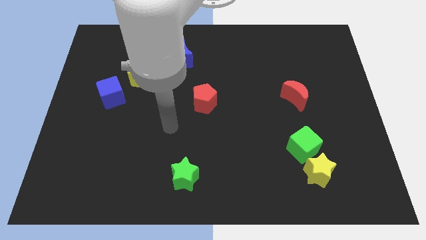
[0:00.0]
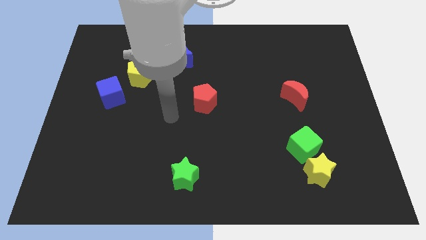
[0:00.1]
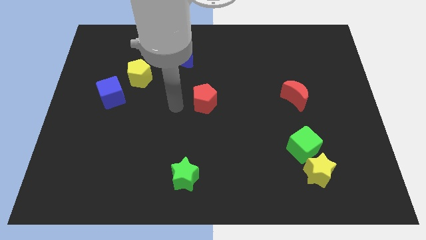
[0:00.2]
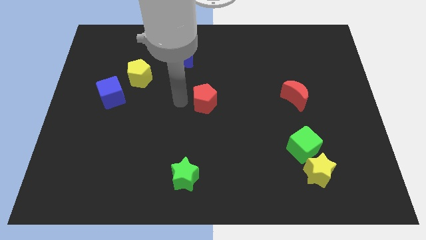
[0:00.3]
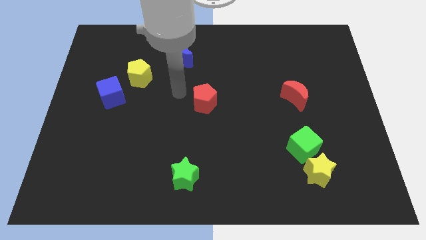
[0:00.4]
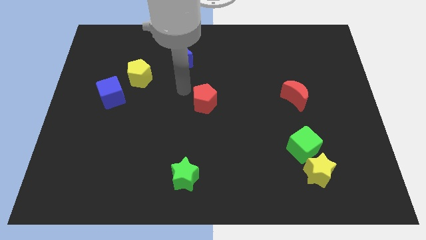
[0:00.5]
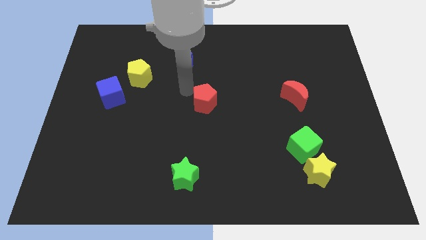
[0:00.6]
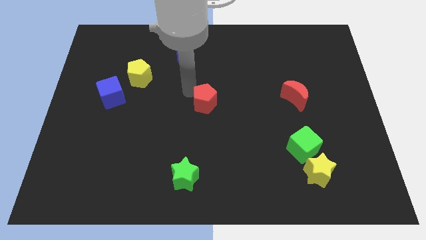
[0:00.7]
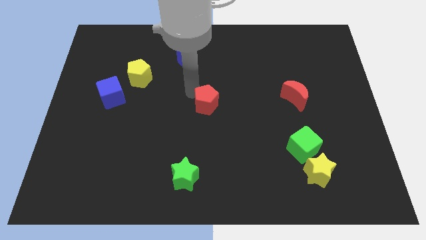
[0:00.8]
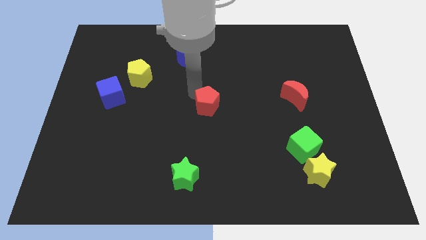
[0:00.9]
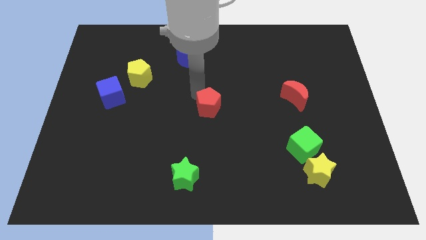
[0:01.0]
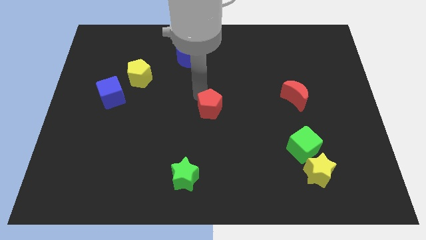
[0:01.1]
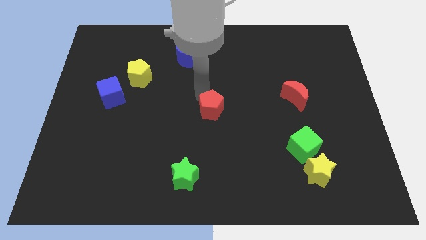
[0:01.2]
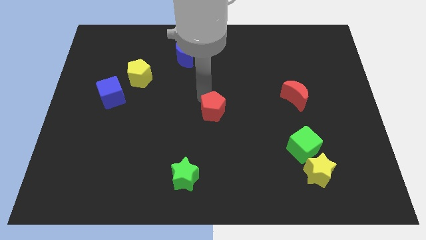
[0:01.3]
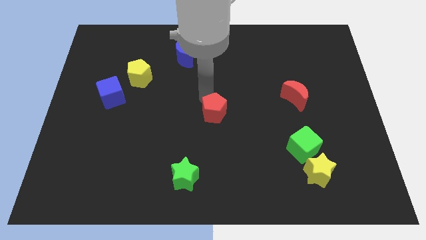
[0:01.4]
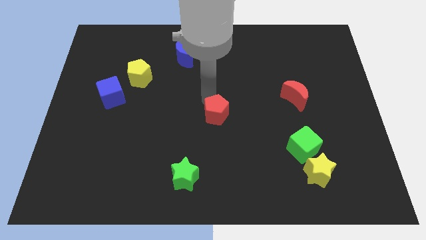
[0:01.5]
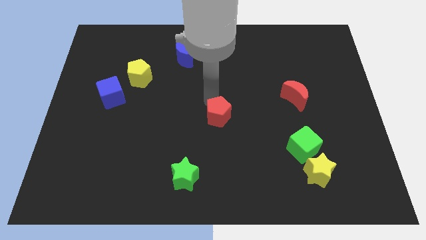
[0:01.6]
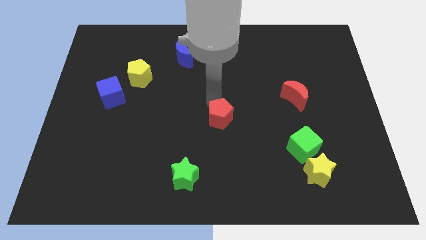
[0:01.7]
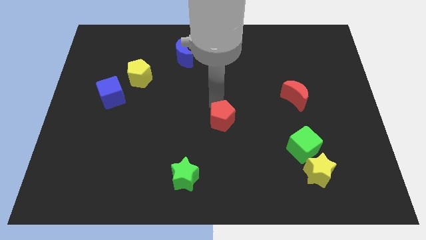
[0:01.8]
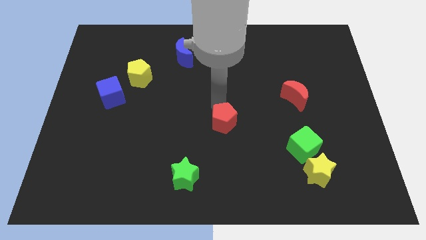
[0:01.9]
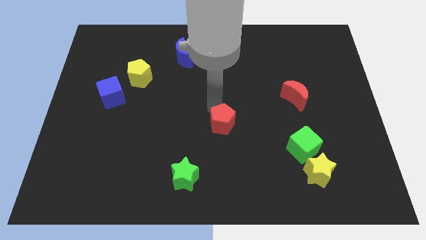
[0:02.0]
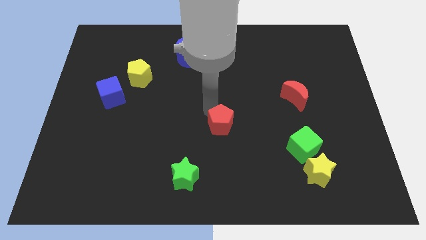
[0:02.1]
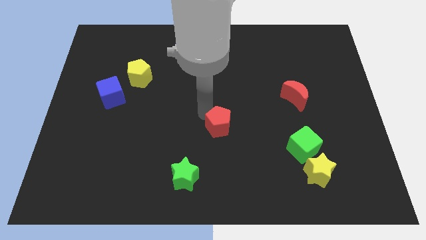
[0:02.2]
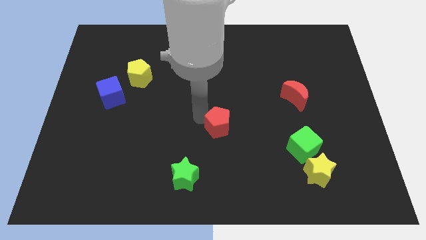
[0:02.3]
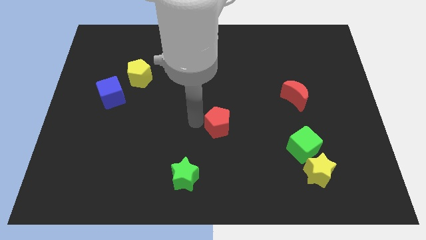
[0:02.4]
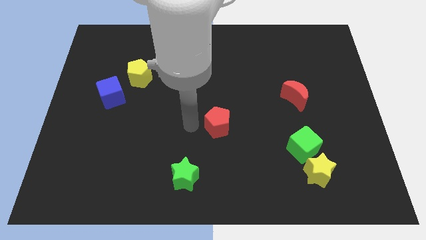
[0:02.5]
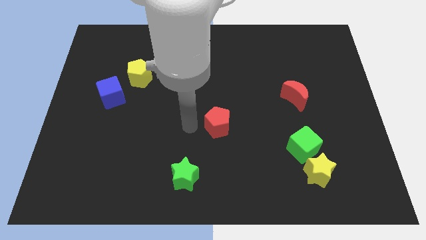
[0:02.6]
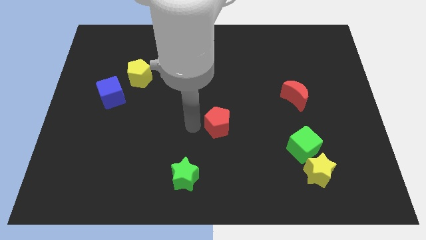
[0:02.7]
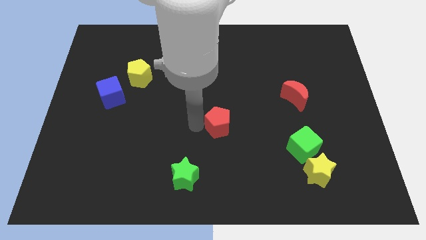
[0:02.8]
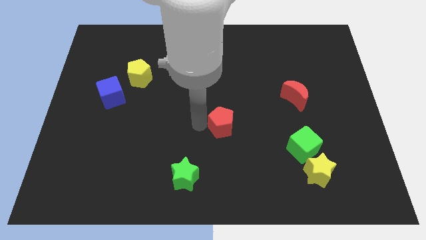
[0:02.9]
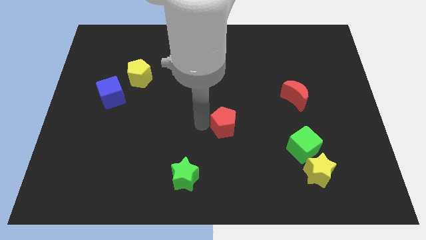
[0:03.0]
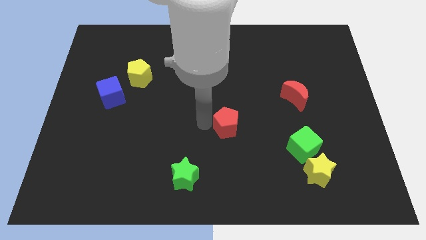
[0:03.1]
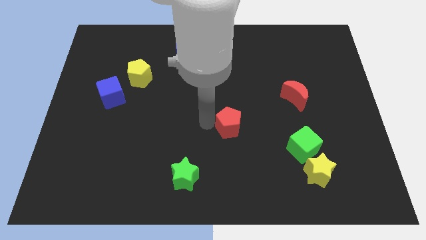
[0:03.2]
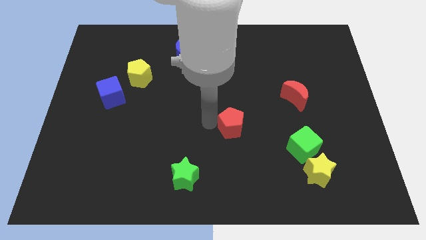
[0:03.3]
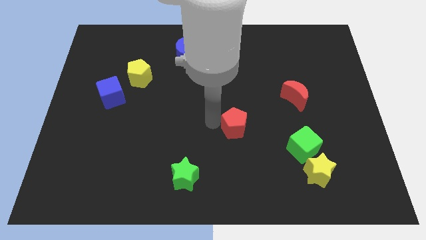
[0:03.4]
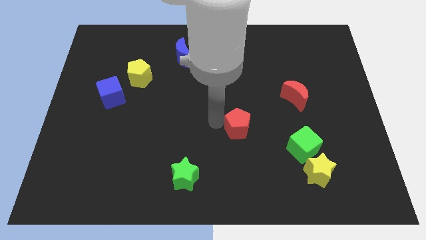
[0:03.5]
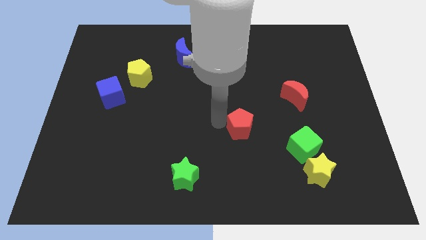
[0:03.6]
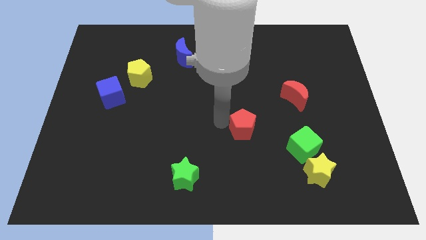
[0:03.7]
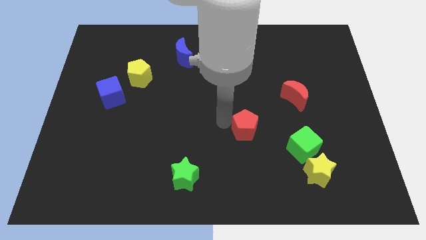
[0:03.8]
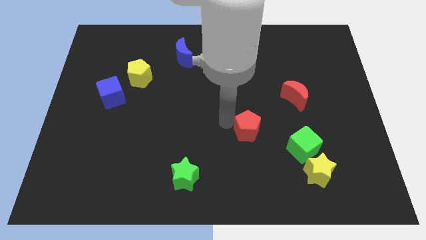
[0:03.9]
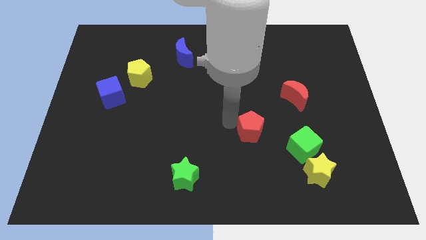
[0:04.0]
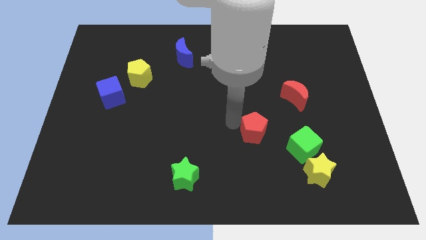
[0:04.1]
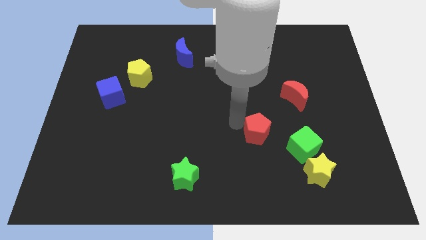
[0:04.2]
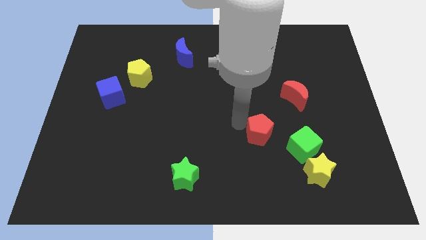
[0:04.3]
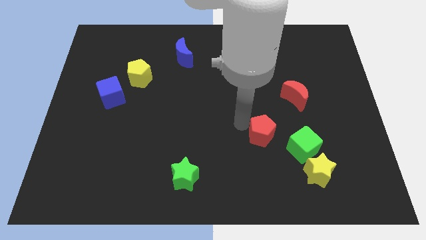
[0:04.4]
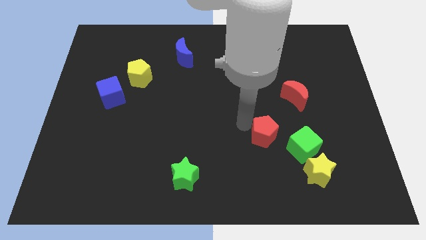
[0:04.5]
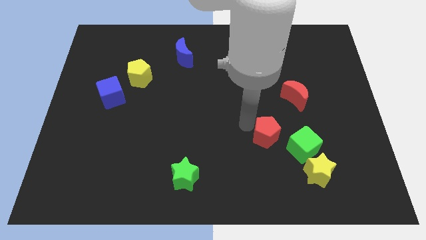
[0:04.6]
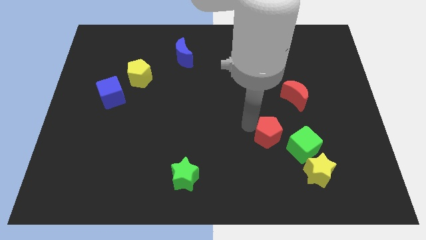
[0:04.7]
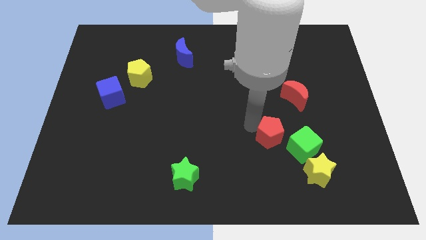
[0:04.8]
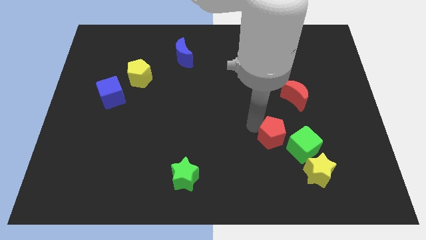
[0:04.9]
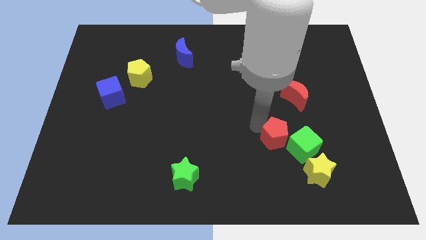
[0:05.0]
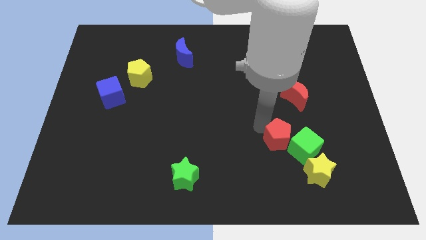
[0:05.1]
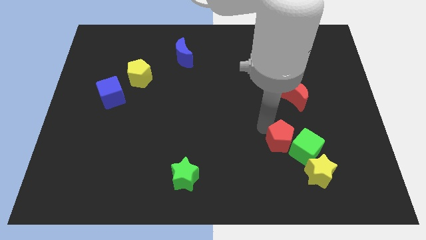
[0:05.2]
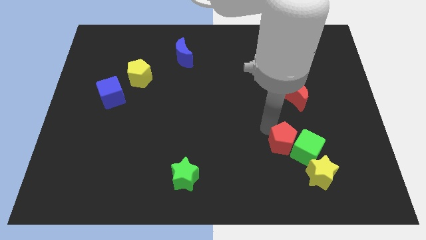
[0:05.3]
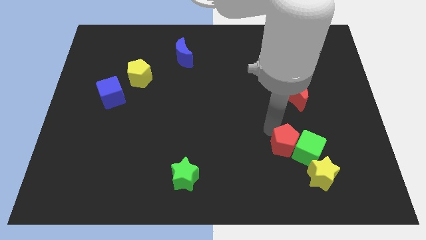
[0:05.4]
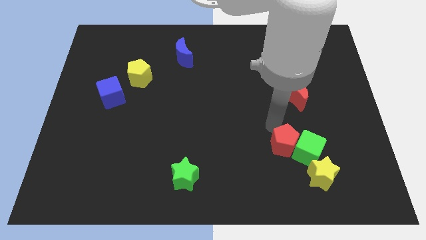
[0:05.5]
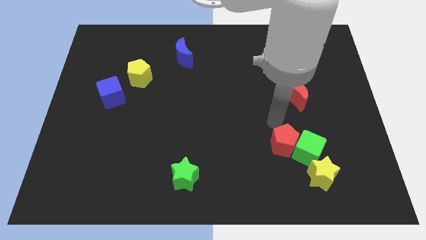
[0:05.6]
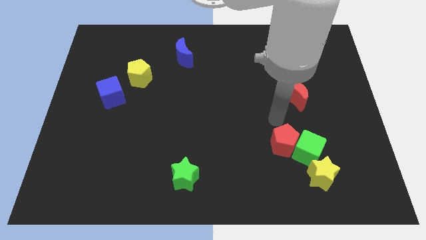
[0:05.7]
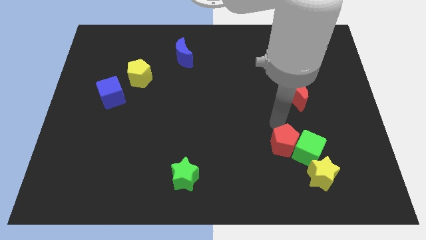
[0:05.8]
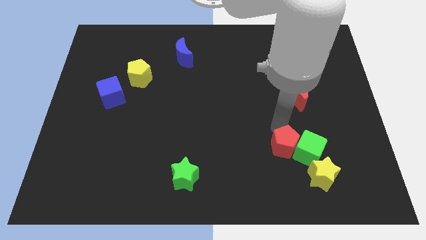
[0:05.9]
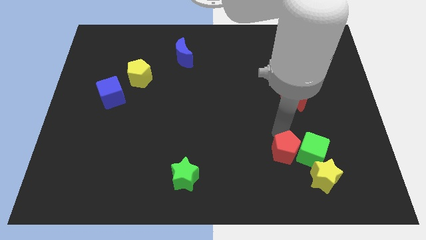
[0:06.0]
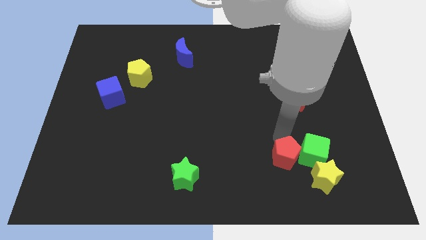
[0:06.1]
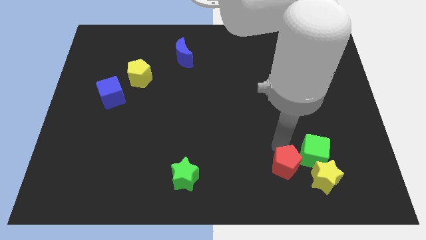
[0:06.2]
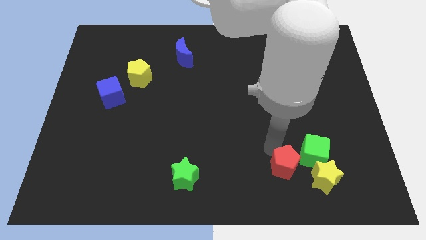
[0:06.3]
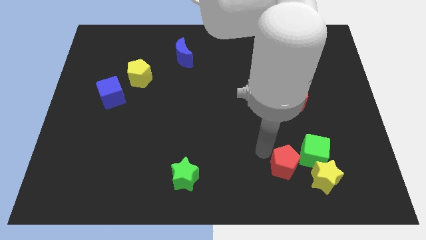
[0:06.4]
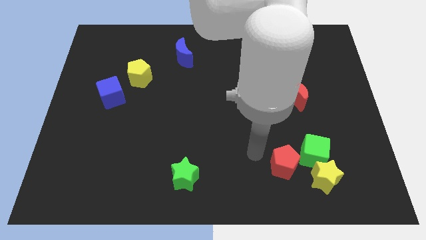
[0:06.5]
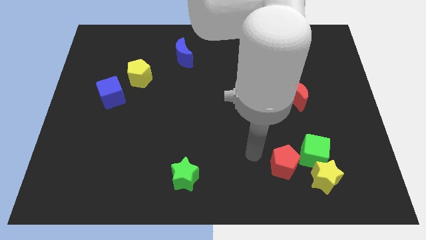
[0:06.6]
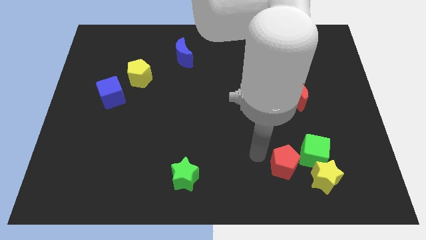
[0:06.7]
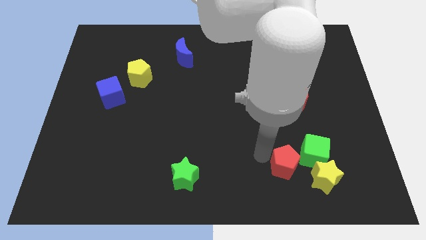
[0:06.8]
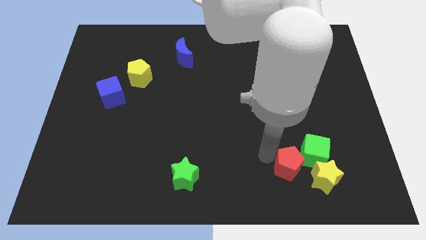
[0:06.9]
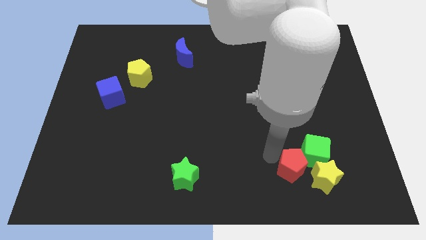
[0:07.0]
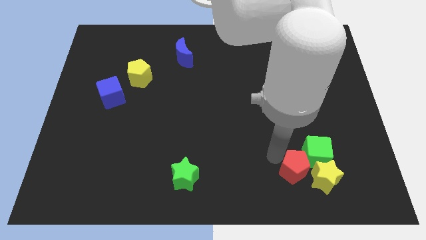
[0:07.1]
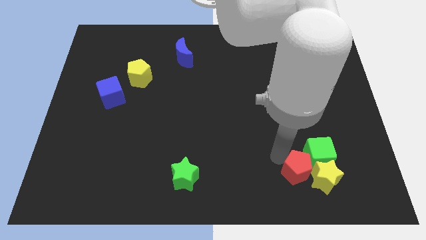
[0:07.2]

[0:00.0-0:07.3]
put the red pentagon towards the yellow star
